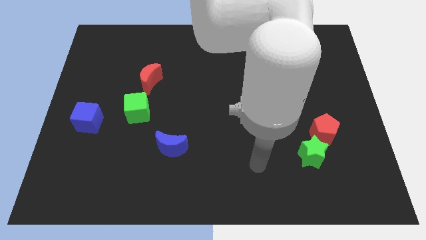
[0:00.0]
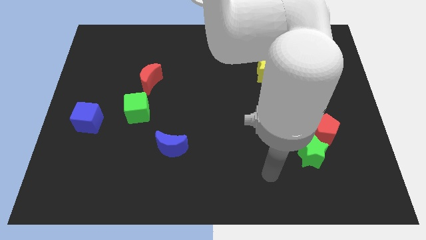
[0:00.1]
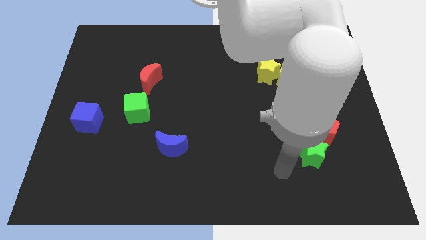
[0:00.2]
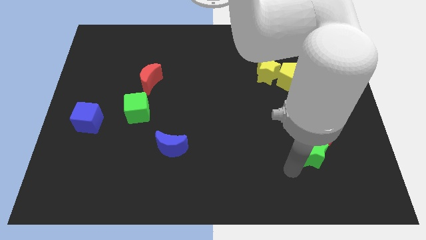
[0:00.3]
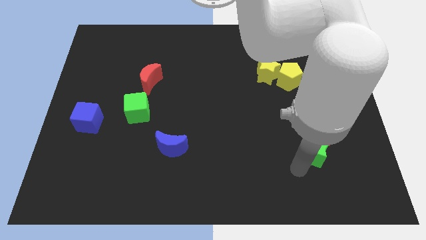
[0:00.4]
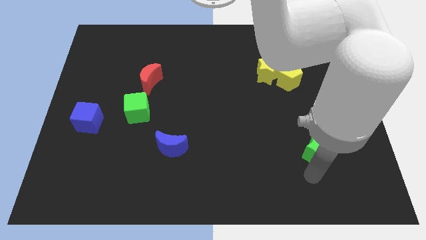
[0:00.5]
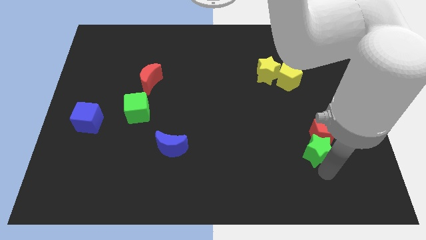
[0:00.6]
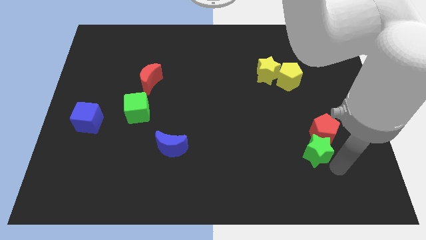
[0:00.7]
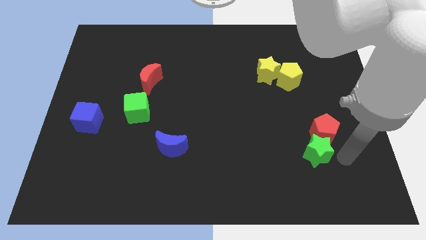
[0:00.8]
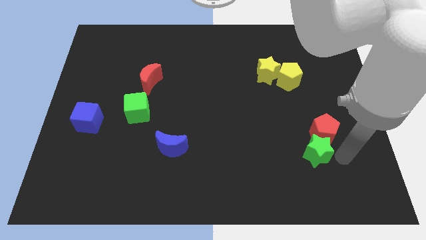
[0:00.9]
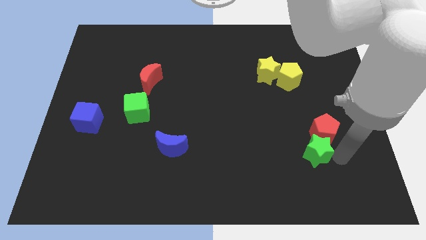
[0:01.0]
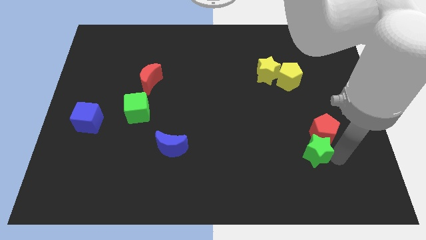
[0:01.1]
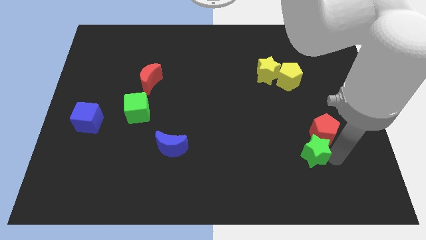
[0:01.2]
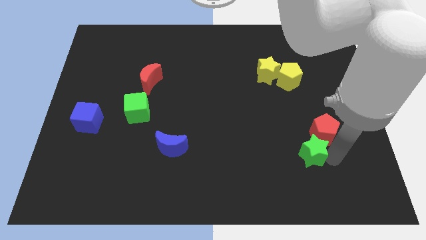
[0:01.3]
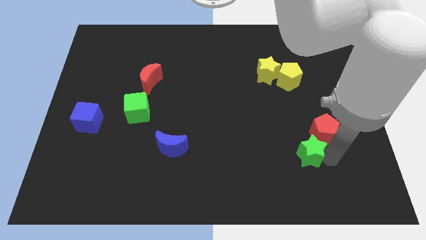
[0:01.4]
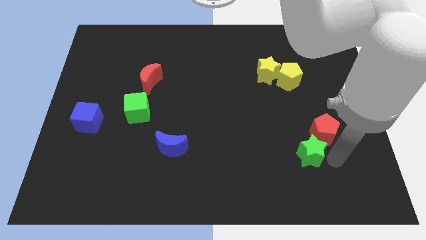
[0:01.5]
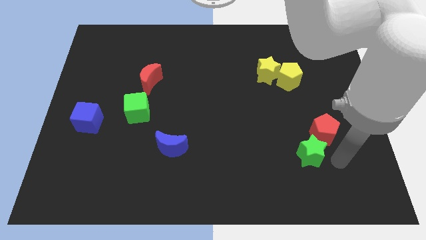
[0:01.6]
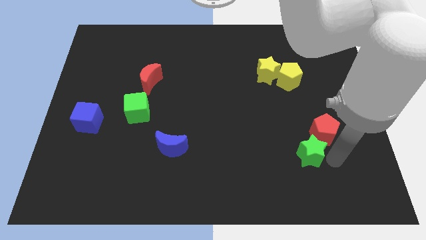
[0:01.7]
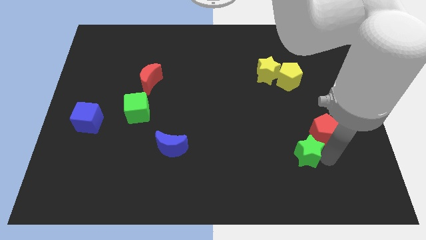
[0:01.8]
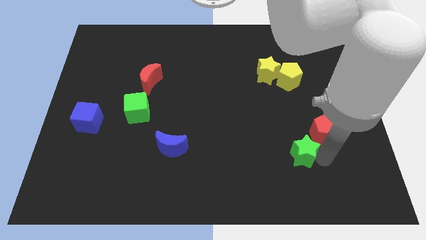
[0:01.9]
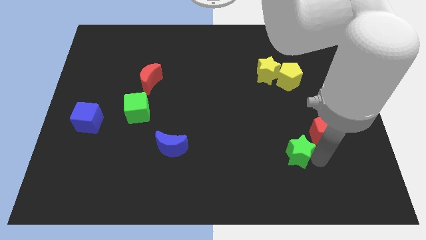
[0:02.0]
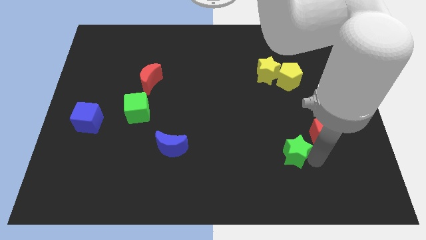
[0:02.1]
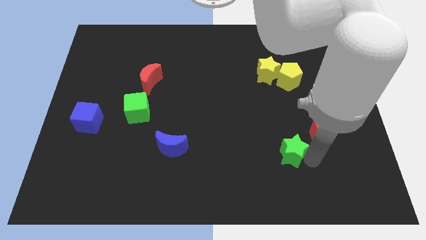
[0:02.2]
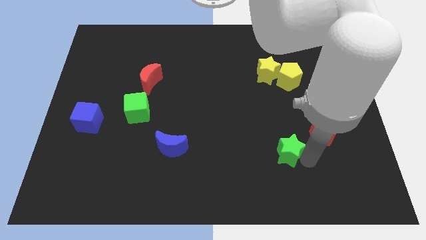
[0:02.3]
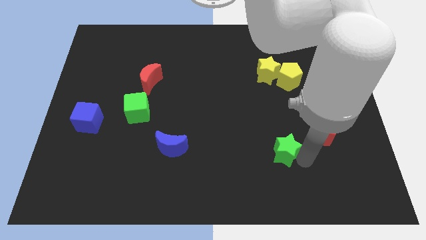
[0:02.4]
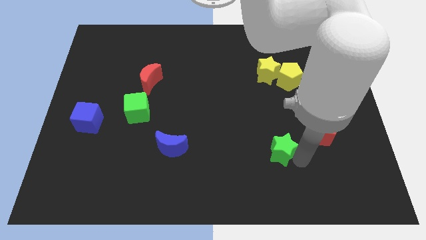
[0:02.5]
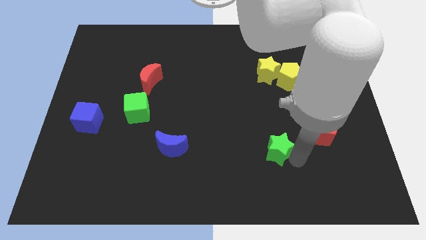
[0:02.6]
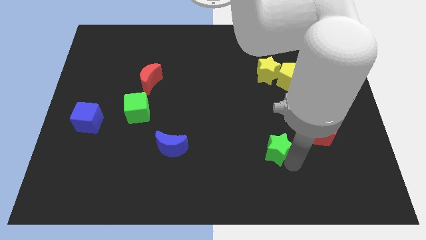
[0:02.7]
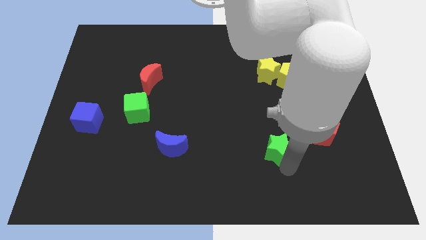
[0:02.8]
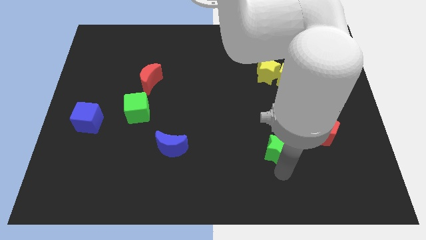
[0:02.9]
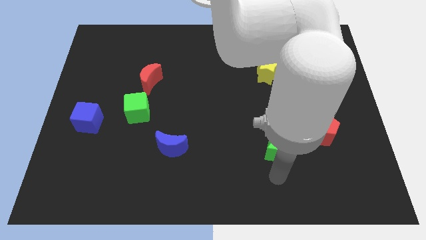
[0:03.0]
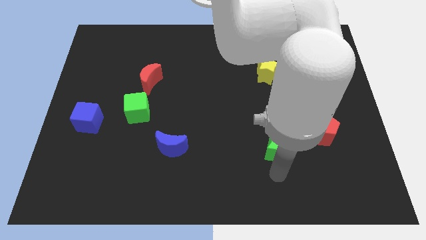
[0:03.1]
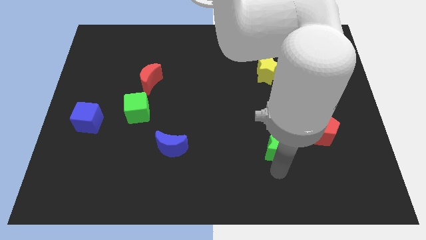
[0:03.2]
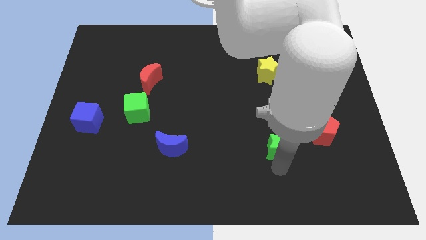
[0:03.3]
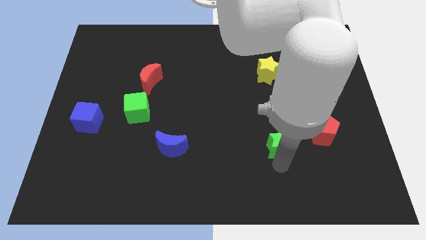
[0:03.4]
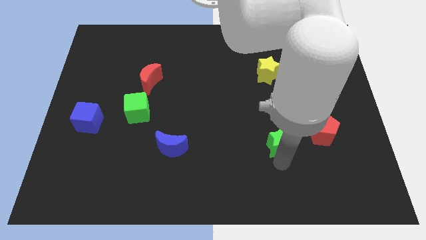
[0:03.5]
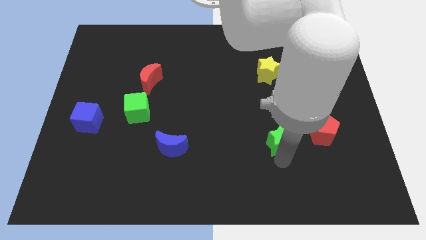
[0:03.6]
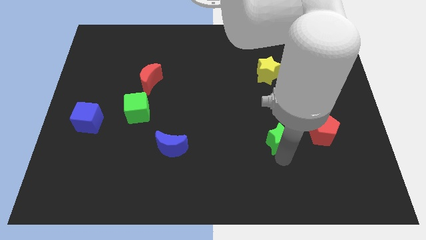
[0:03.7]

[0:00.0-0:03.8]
push the green star slightly up and to the left diagonally

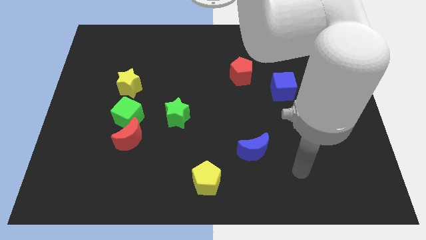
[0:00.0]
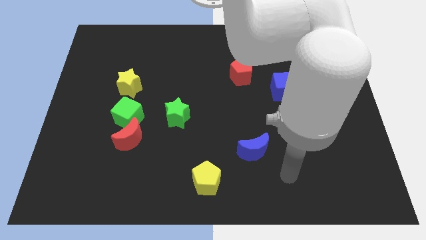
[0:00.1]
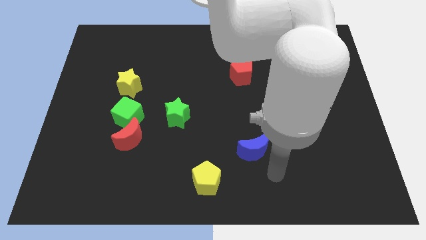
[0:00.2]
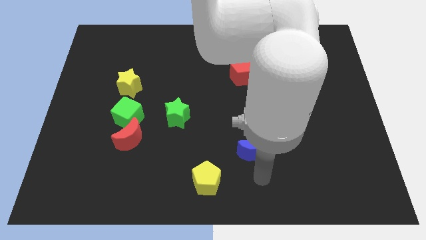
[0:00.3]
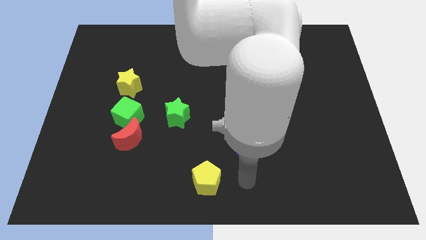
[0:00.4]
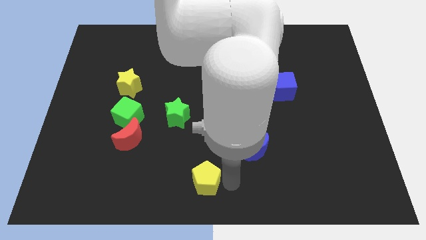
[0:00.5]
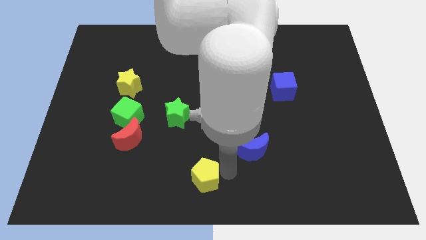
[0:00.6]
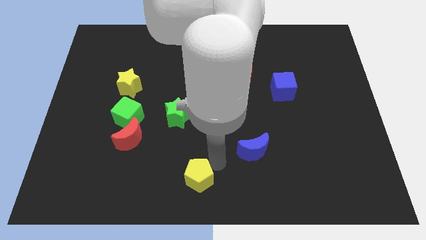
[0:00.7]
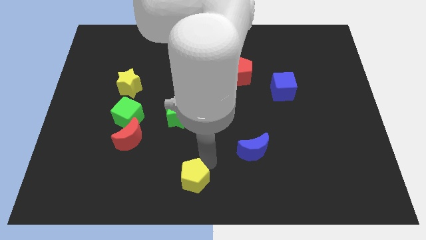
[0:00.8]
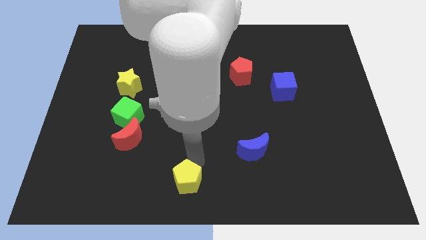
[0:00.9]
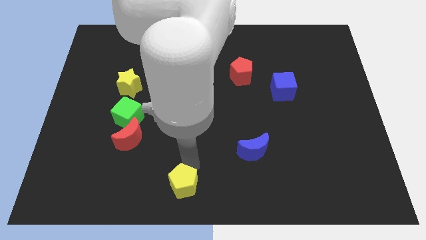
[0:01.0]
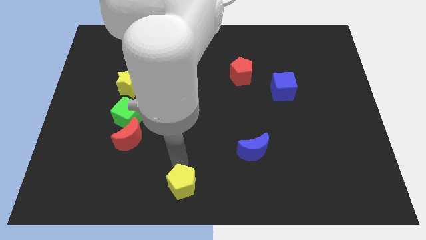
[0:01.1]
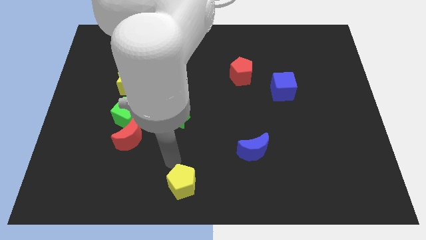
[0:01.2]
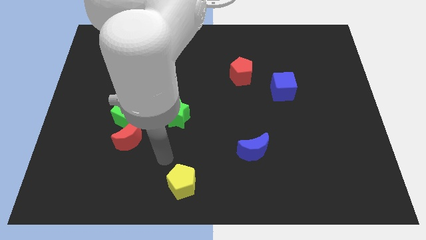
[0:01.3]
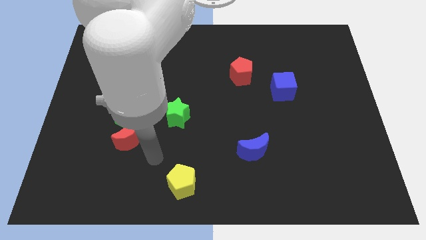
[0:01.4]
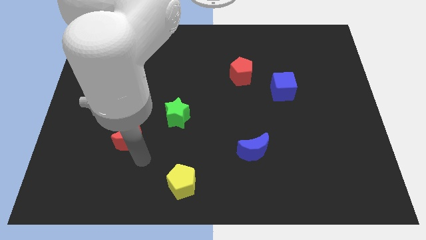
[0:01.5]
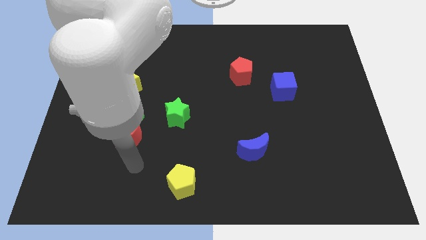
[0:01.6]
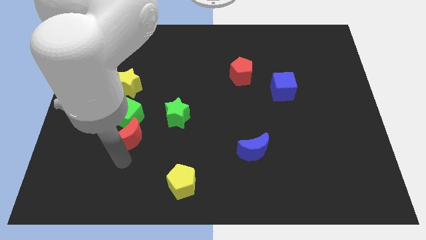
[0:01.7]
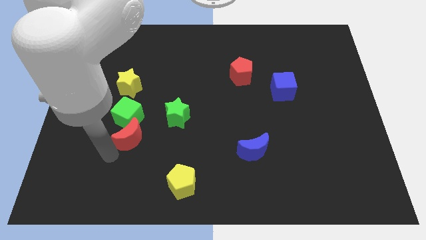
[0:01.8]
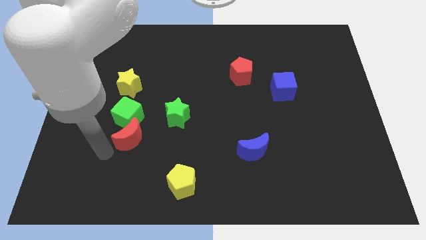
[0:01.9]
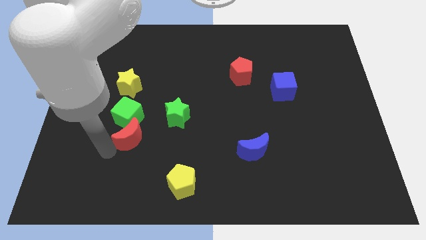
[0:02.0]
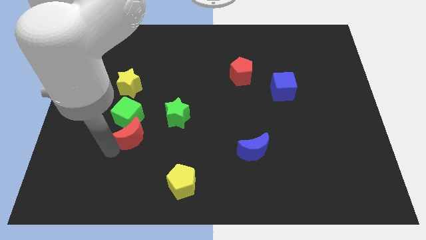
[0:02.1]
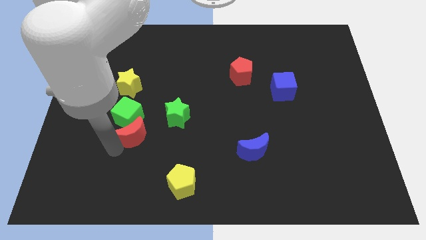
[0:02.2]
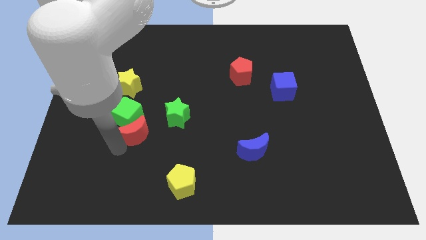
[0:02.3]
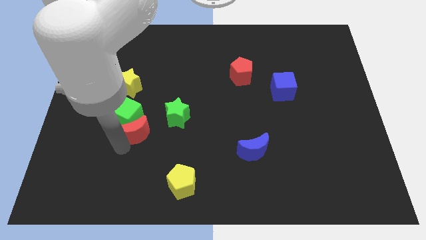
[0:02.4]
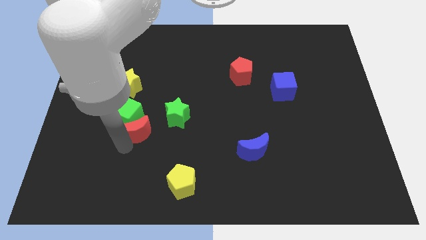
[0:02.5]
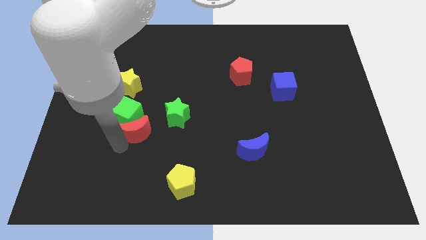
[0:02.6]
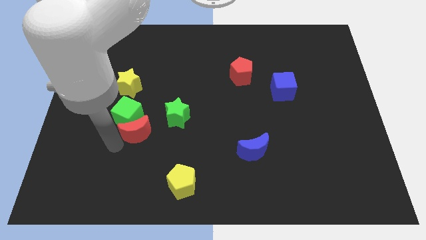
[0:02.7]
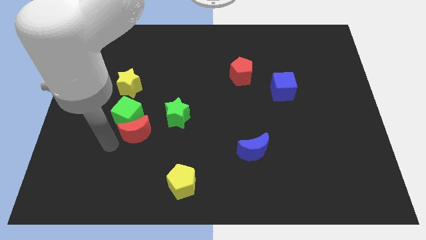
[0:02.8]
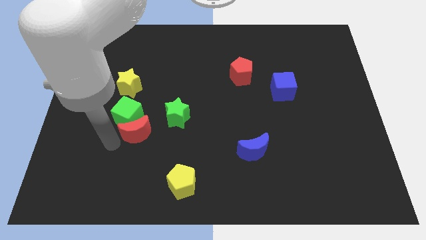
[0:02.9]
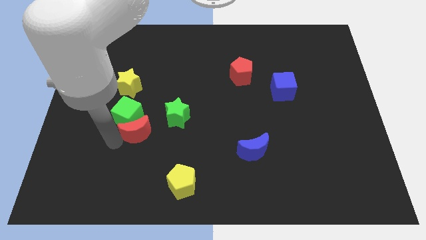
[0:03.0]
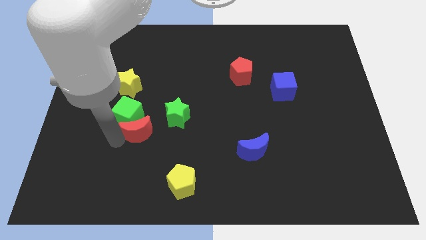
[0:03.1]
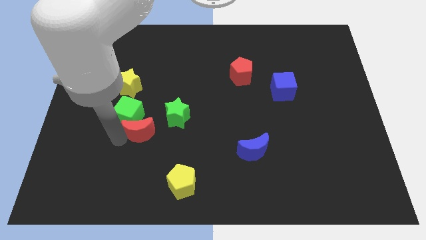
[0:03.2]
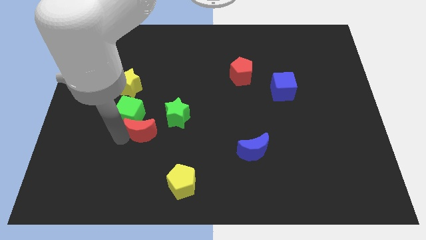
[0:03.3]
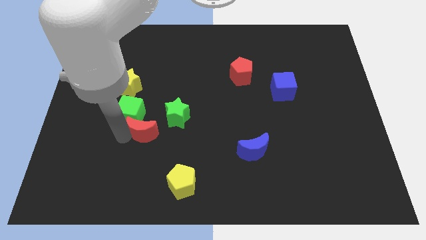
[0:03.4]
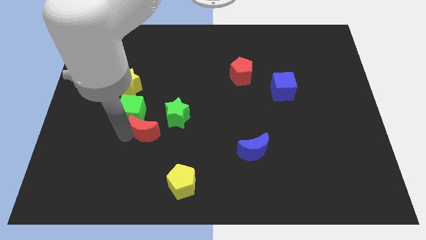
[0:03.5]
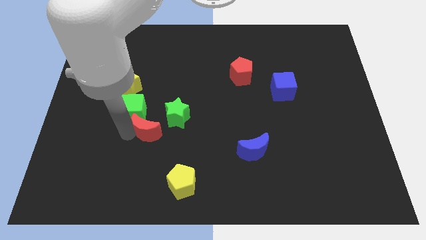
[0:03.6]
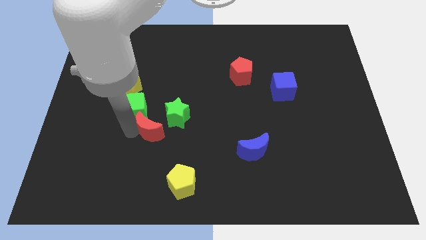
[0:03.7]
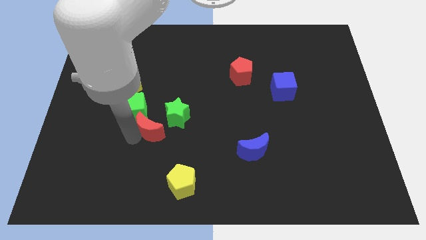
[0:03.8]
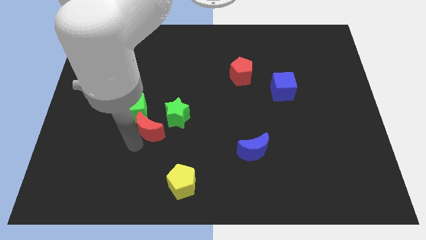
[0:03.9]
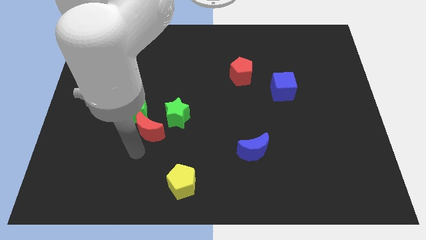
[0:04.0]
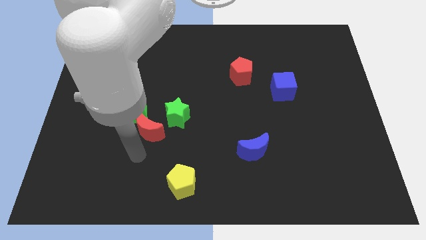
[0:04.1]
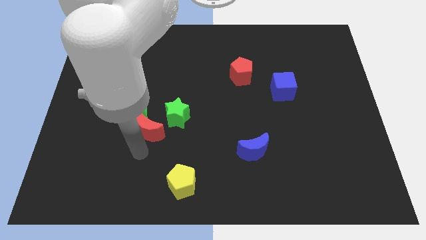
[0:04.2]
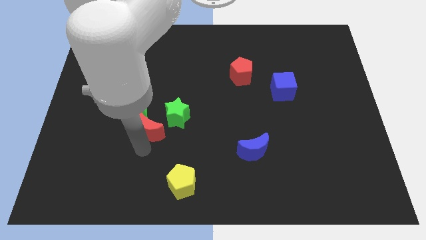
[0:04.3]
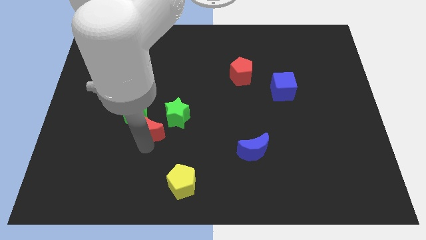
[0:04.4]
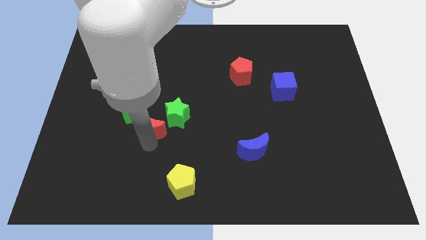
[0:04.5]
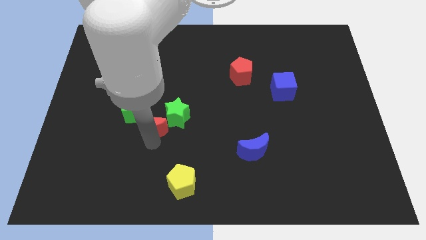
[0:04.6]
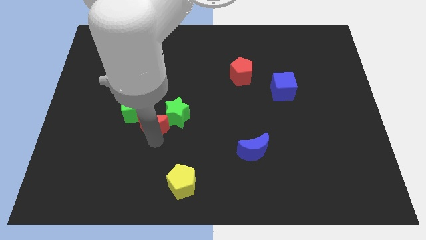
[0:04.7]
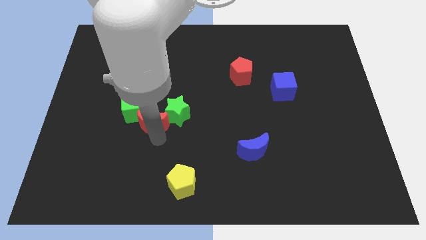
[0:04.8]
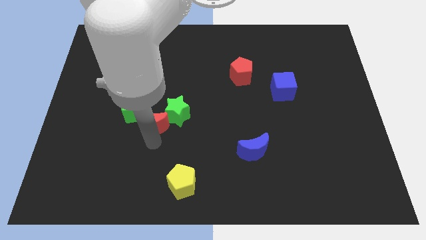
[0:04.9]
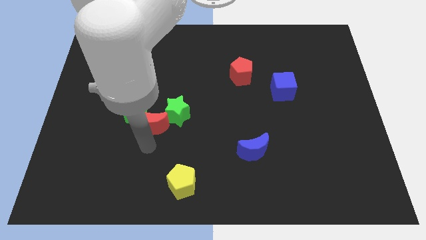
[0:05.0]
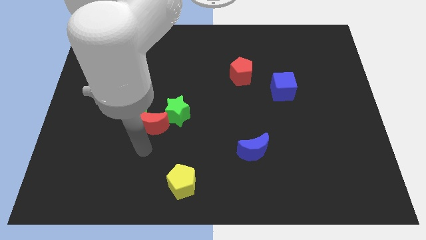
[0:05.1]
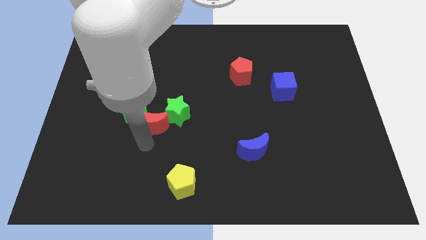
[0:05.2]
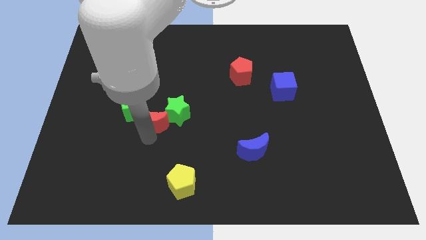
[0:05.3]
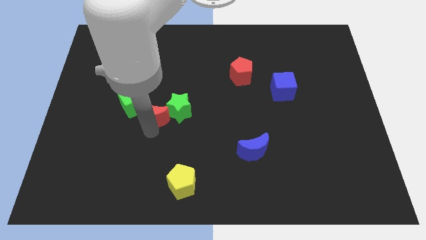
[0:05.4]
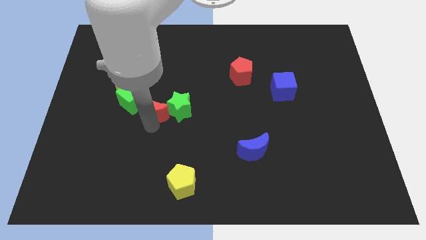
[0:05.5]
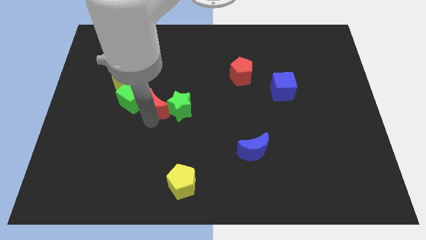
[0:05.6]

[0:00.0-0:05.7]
move the red moon upwards somewhat
